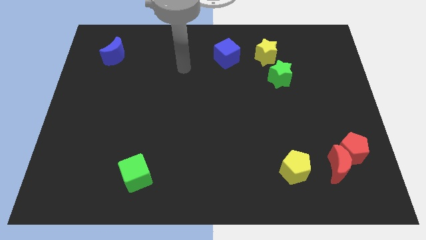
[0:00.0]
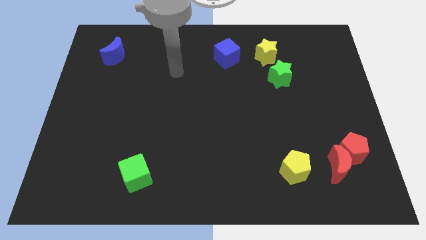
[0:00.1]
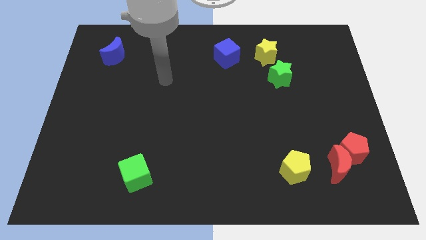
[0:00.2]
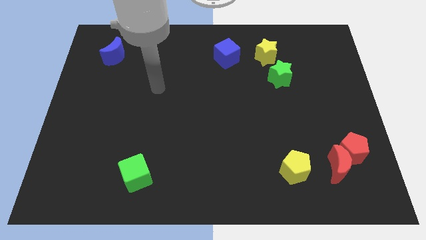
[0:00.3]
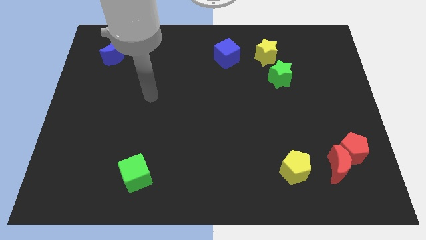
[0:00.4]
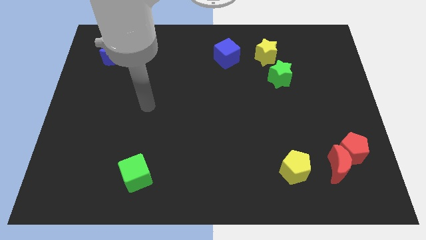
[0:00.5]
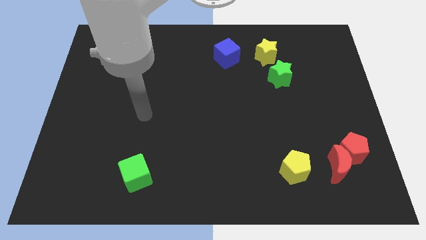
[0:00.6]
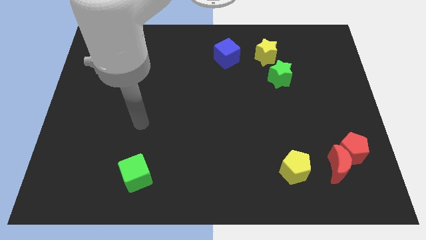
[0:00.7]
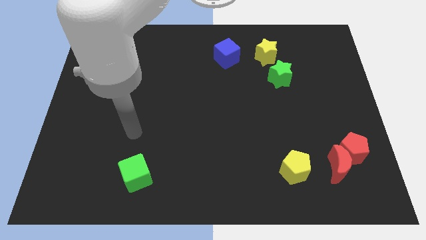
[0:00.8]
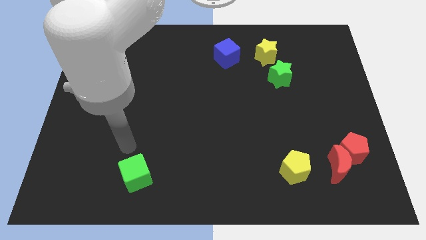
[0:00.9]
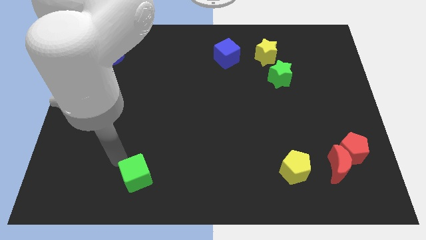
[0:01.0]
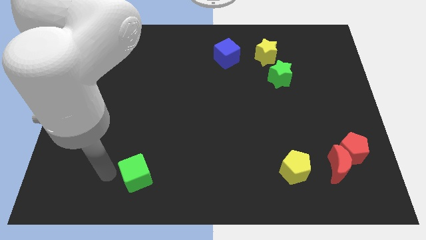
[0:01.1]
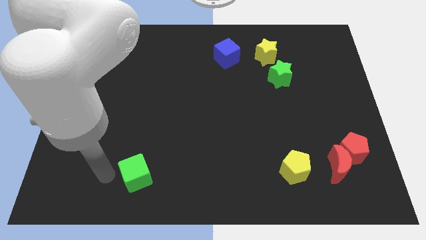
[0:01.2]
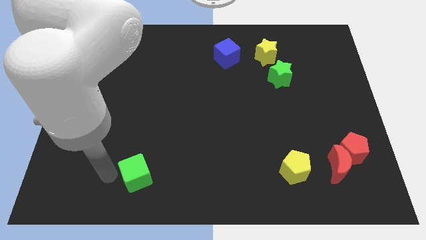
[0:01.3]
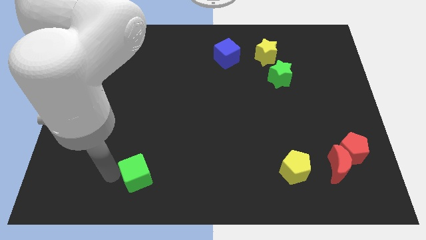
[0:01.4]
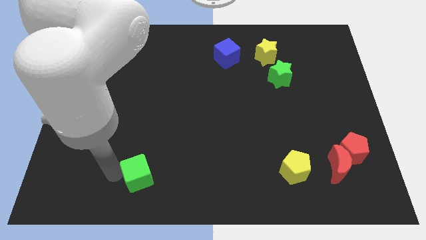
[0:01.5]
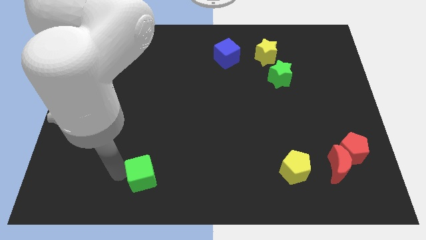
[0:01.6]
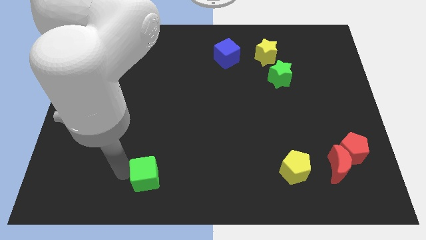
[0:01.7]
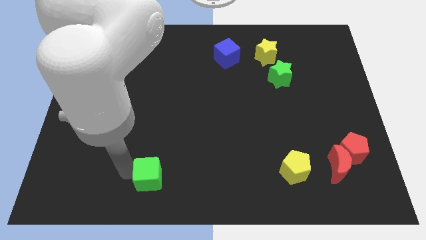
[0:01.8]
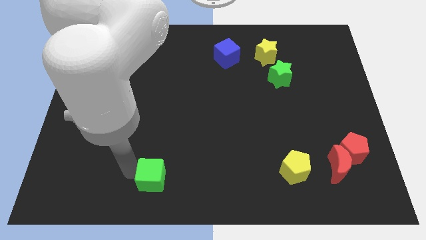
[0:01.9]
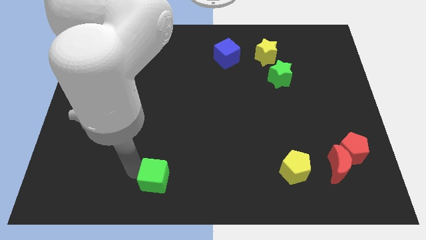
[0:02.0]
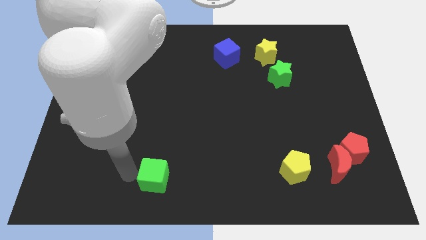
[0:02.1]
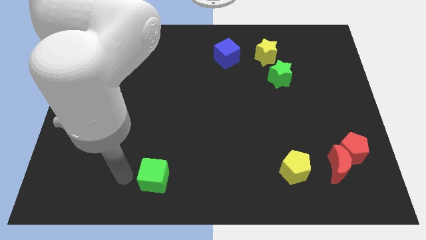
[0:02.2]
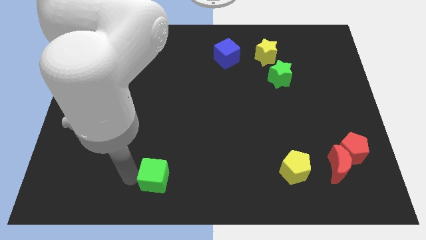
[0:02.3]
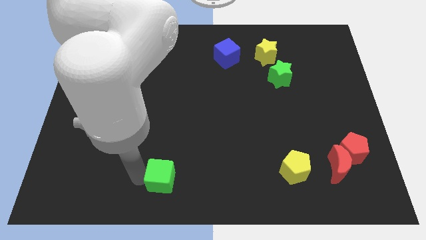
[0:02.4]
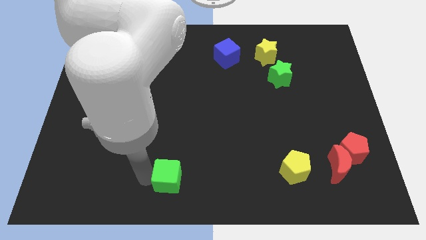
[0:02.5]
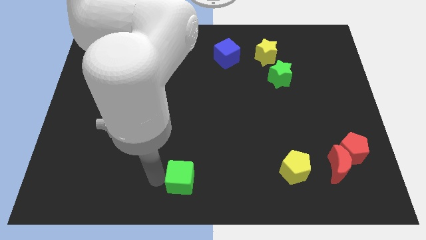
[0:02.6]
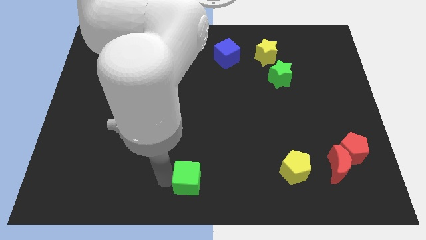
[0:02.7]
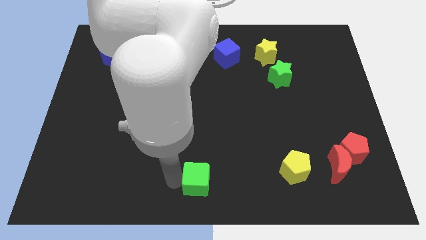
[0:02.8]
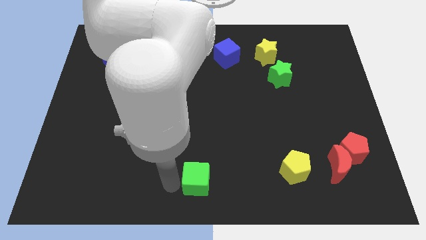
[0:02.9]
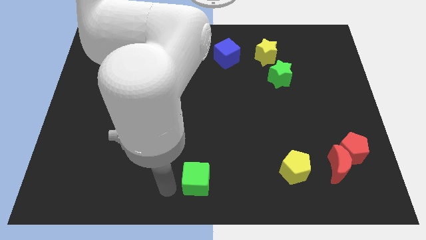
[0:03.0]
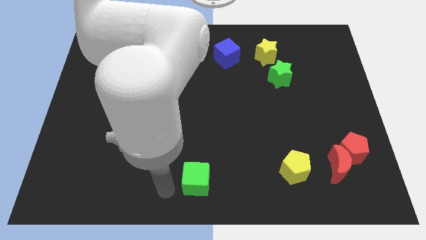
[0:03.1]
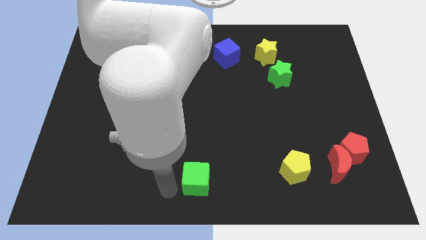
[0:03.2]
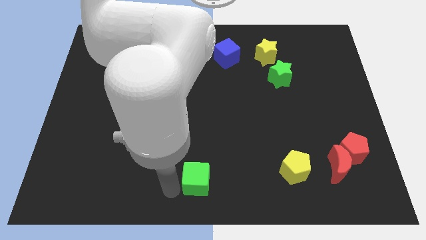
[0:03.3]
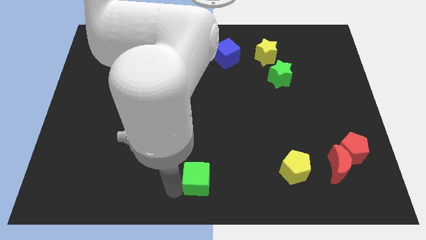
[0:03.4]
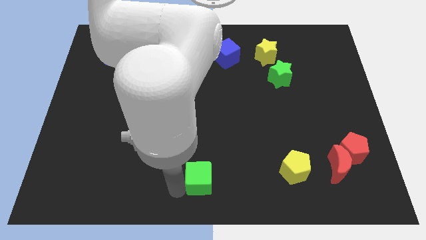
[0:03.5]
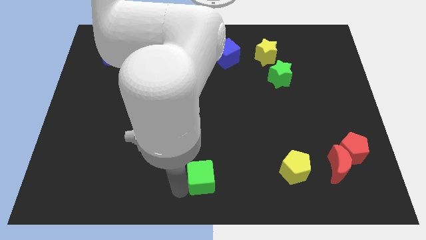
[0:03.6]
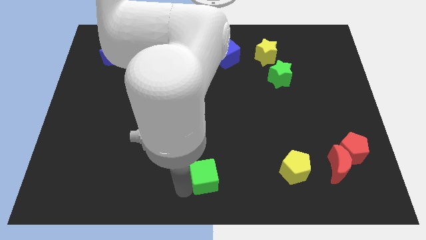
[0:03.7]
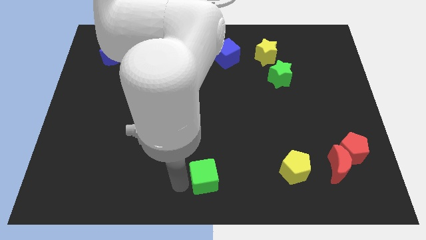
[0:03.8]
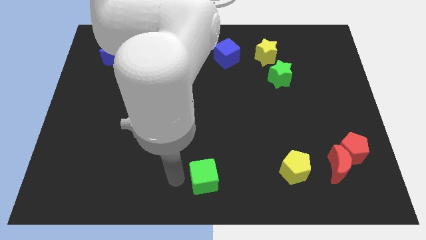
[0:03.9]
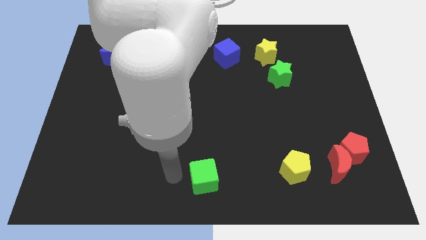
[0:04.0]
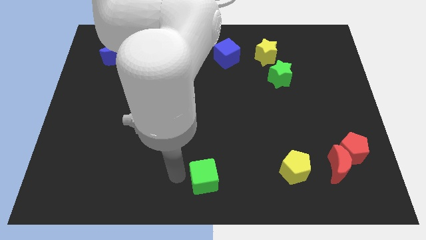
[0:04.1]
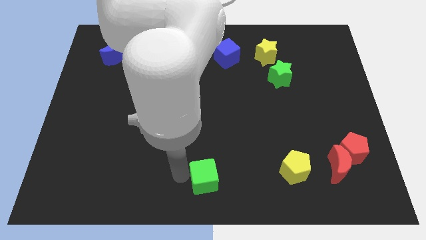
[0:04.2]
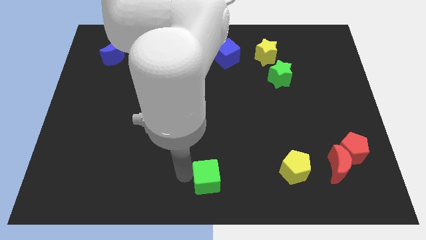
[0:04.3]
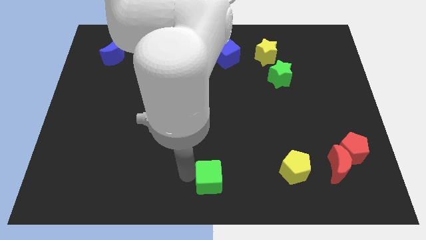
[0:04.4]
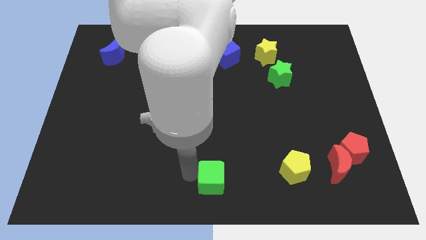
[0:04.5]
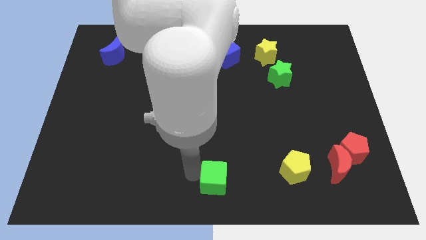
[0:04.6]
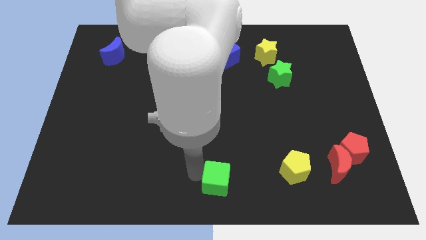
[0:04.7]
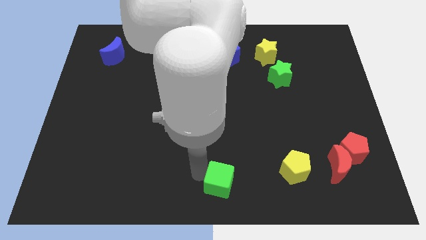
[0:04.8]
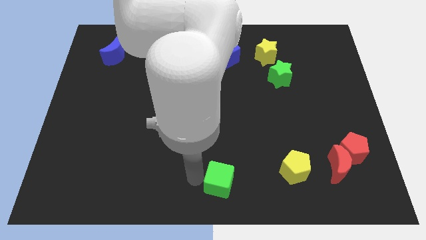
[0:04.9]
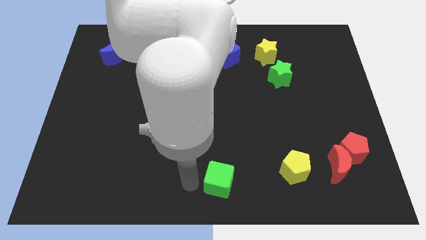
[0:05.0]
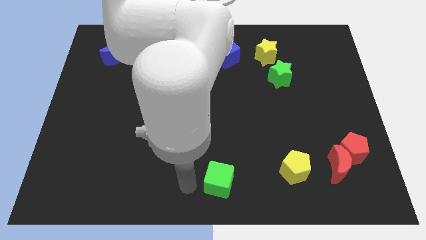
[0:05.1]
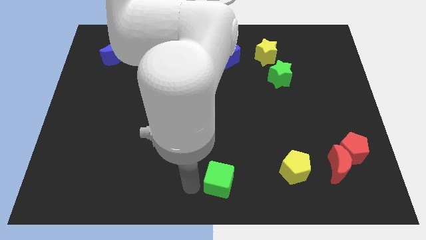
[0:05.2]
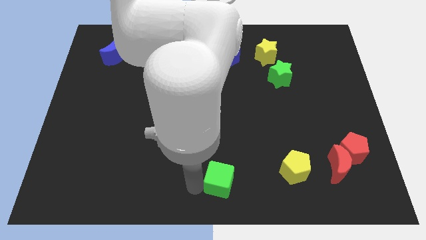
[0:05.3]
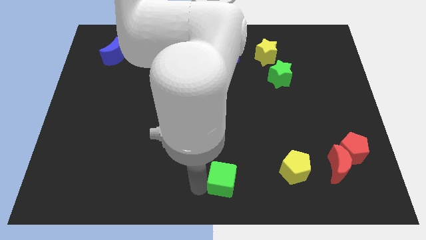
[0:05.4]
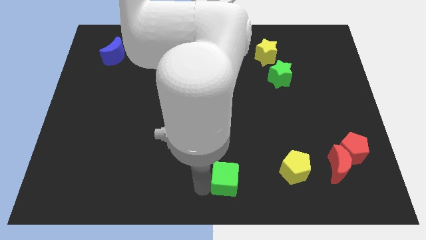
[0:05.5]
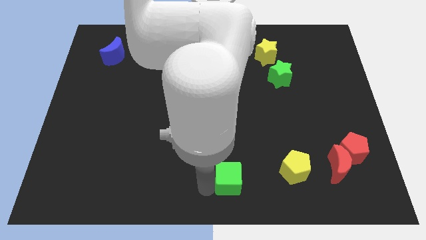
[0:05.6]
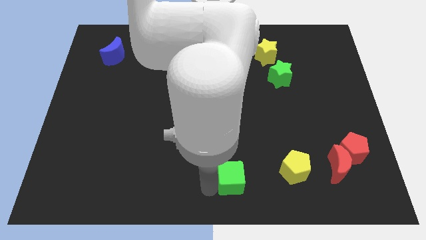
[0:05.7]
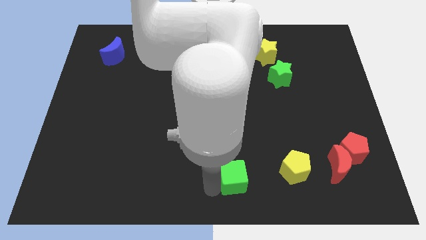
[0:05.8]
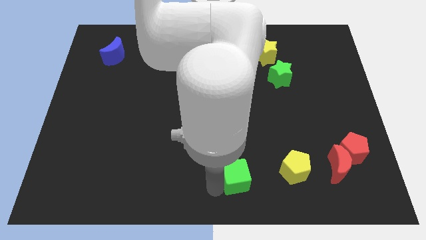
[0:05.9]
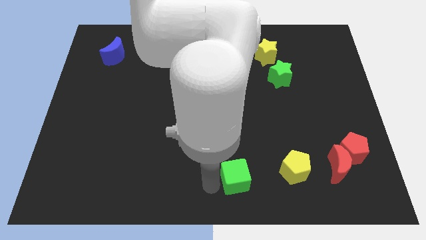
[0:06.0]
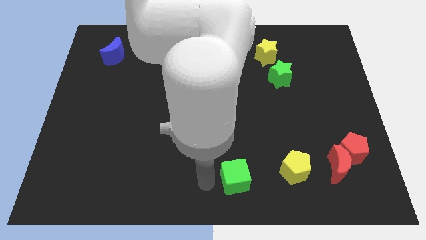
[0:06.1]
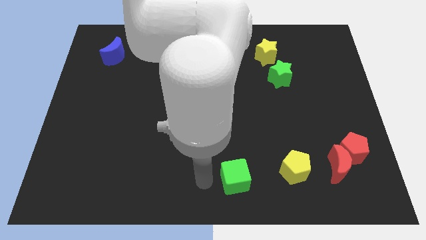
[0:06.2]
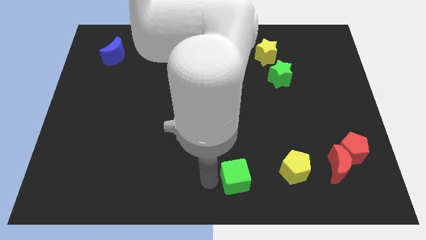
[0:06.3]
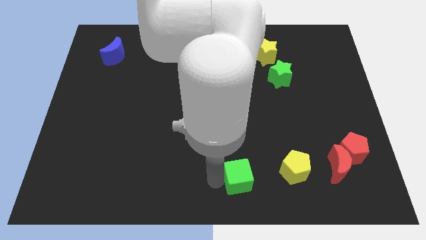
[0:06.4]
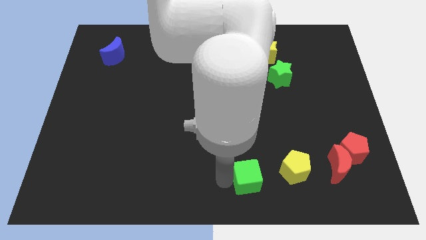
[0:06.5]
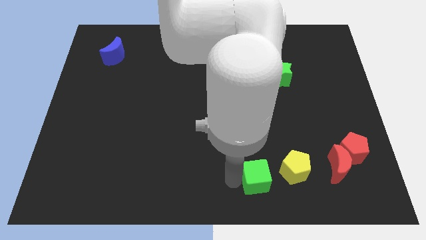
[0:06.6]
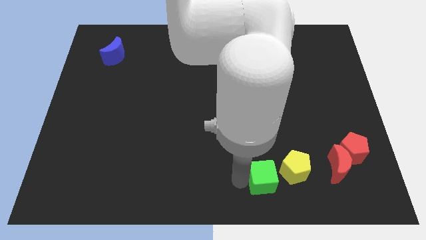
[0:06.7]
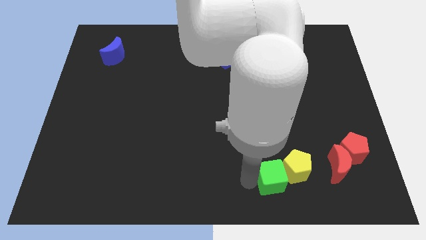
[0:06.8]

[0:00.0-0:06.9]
put the green cube to the yellow pentagon

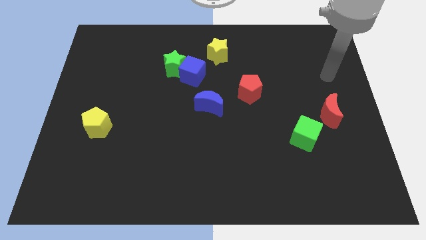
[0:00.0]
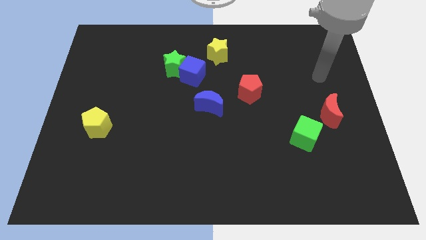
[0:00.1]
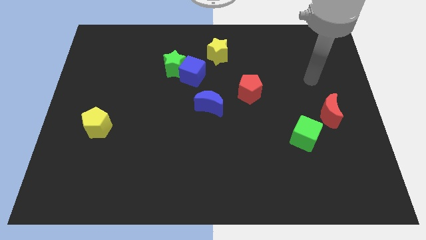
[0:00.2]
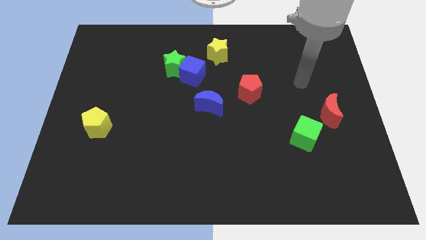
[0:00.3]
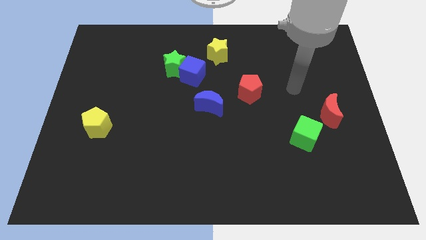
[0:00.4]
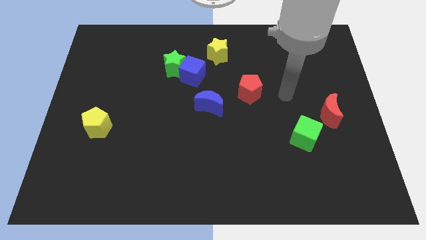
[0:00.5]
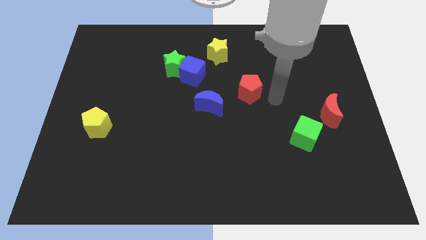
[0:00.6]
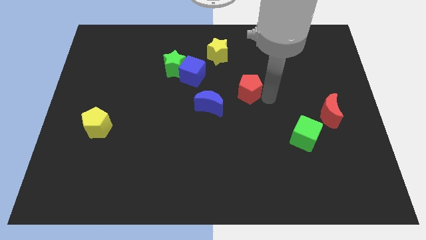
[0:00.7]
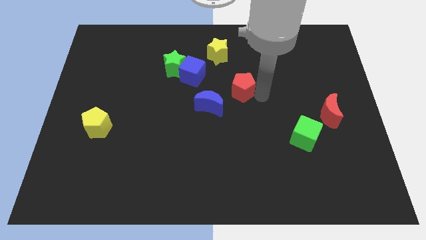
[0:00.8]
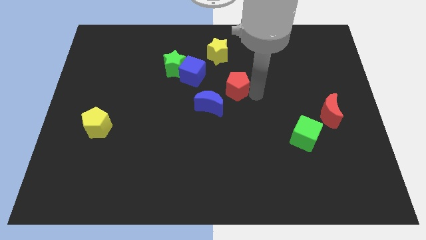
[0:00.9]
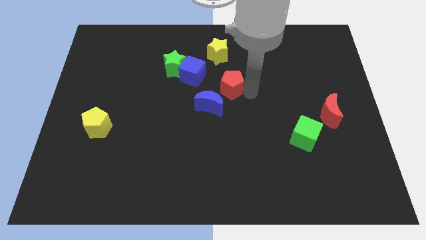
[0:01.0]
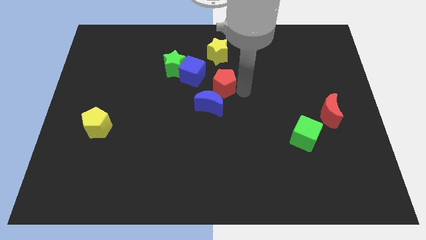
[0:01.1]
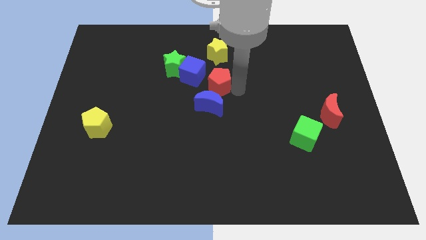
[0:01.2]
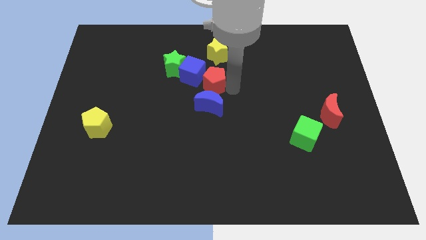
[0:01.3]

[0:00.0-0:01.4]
push the red pentagon next to the blue cube
